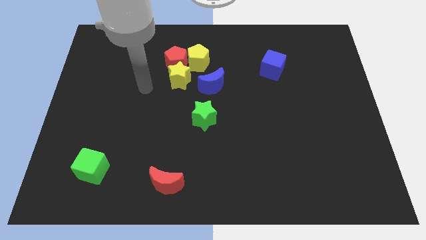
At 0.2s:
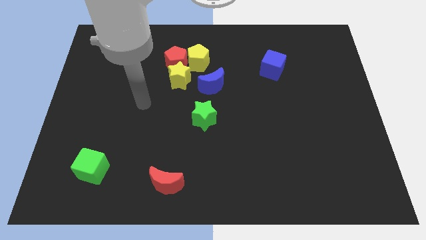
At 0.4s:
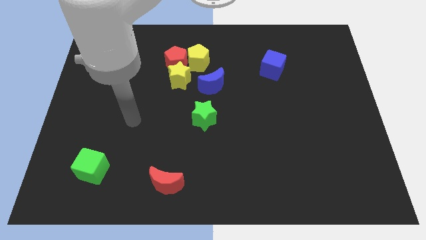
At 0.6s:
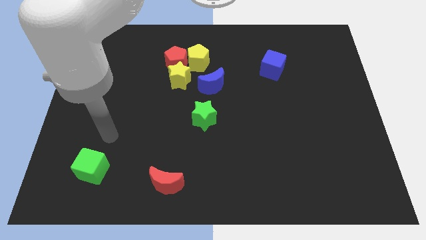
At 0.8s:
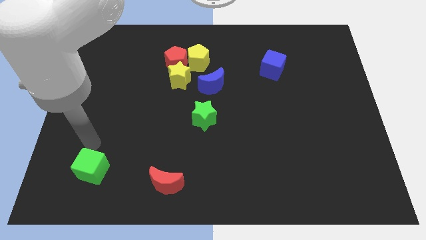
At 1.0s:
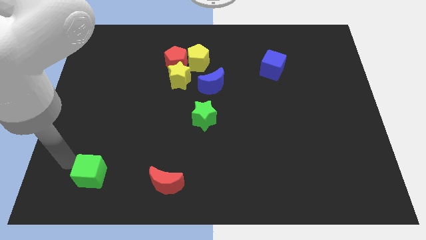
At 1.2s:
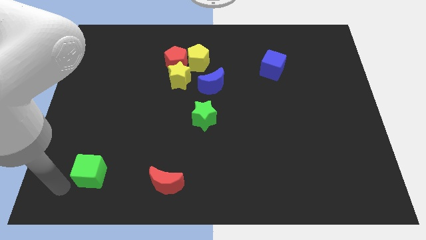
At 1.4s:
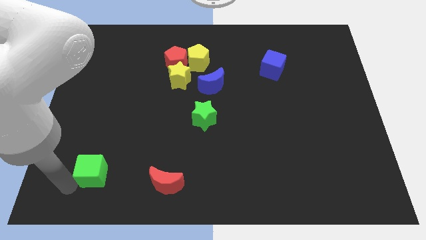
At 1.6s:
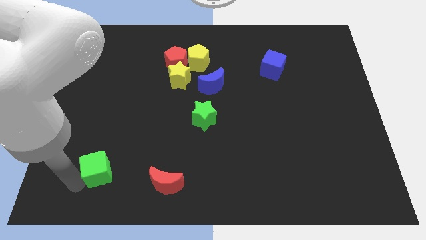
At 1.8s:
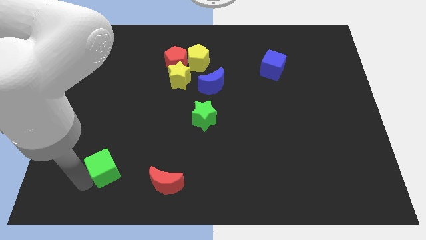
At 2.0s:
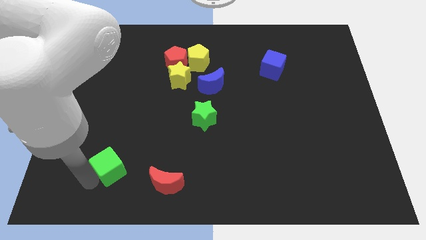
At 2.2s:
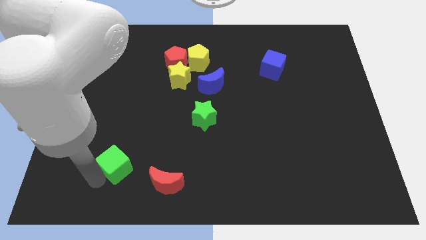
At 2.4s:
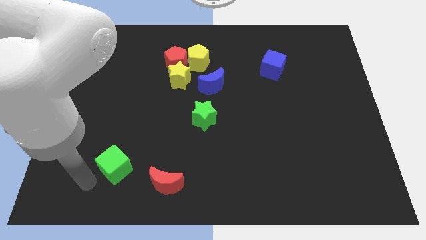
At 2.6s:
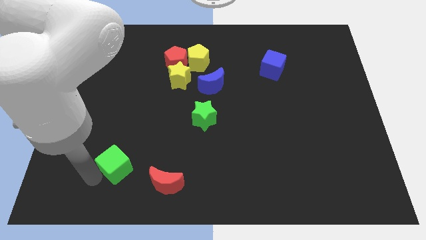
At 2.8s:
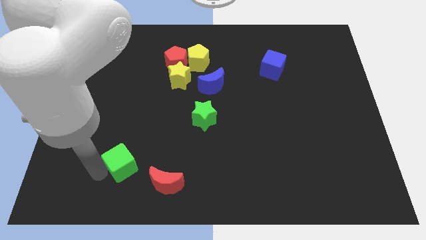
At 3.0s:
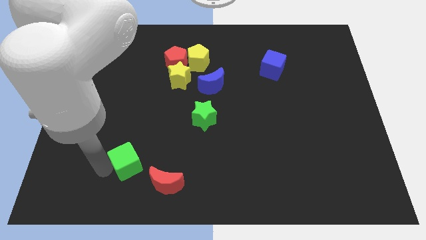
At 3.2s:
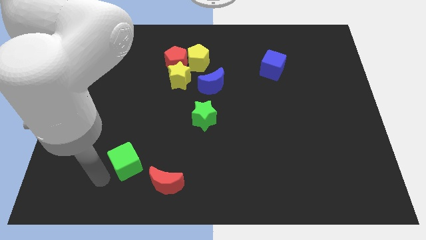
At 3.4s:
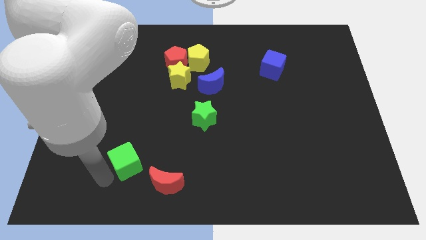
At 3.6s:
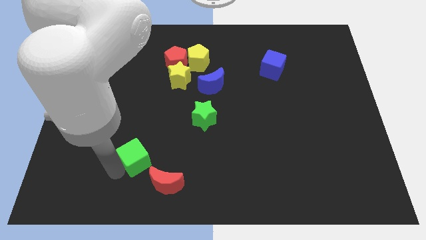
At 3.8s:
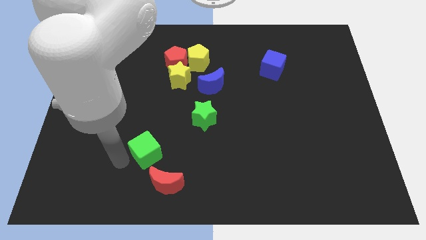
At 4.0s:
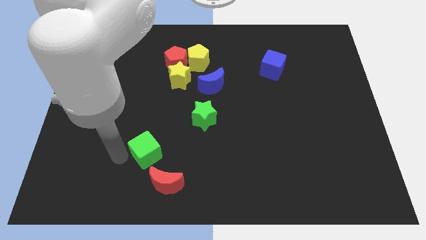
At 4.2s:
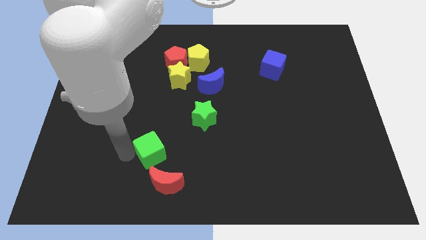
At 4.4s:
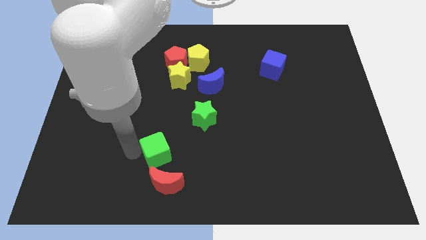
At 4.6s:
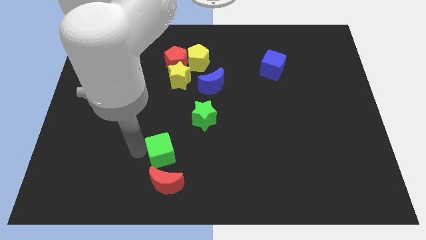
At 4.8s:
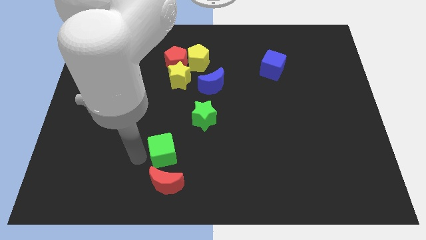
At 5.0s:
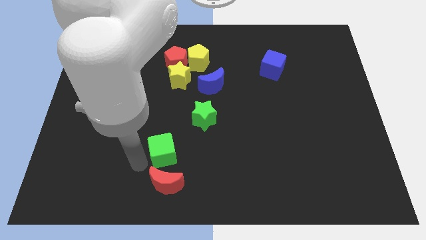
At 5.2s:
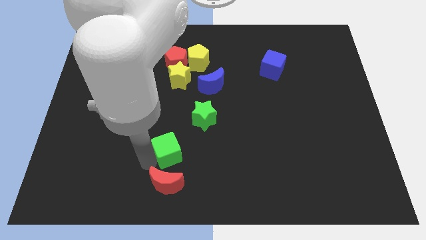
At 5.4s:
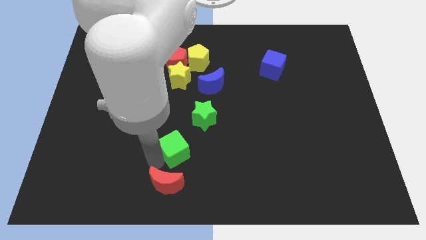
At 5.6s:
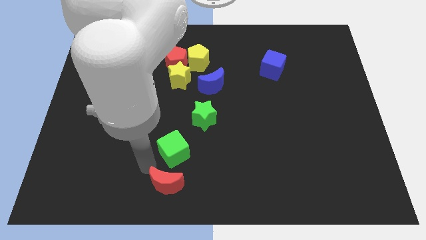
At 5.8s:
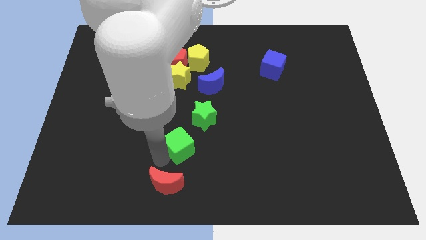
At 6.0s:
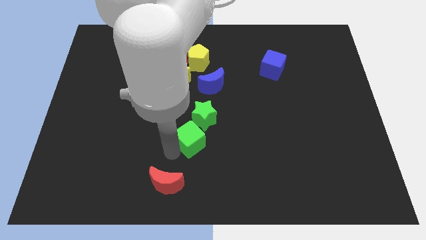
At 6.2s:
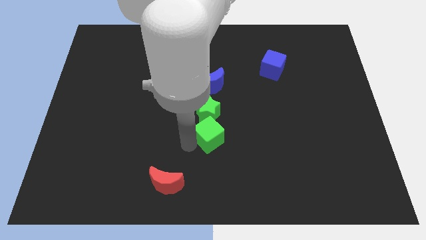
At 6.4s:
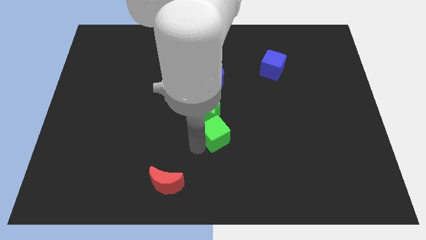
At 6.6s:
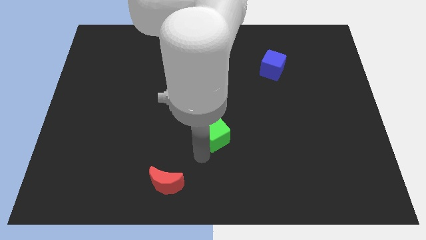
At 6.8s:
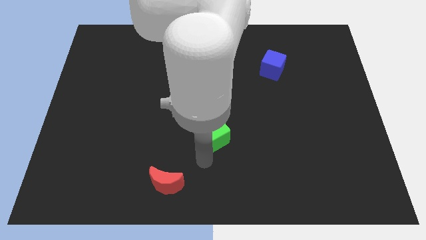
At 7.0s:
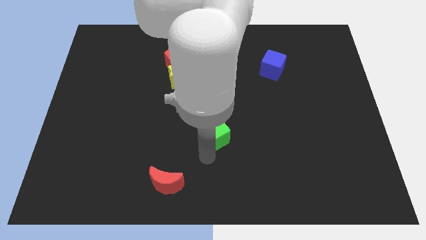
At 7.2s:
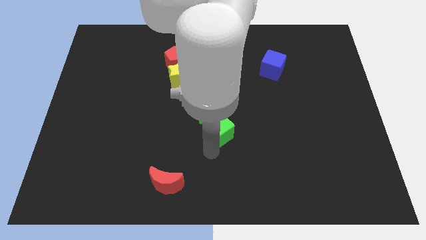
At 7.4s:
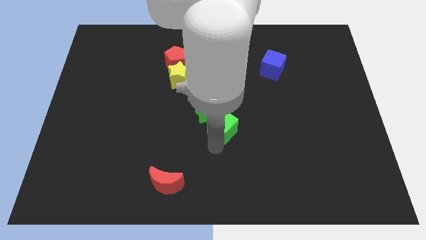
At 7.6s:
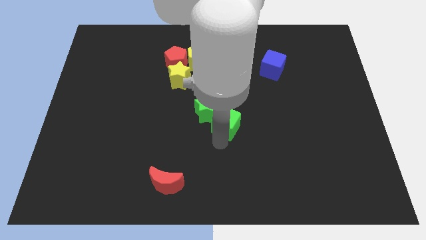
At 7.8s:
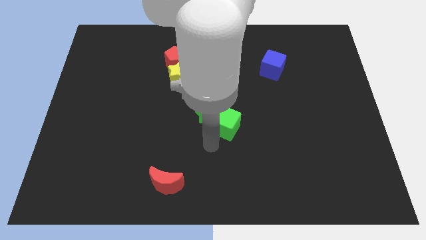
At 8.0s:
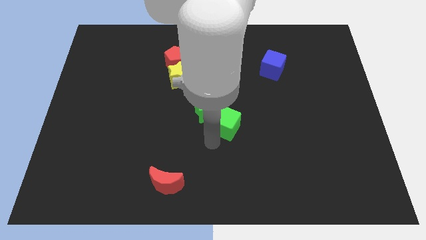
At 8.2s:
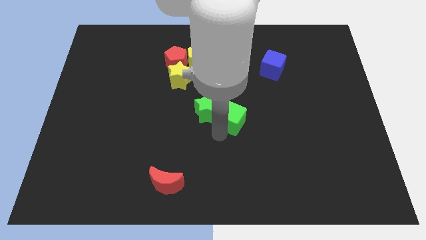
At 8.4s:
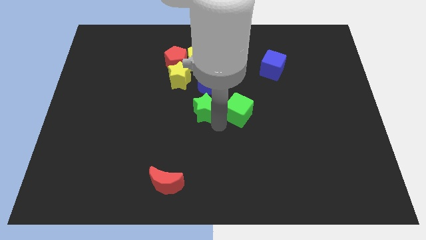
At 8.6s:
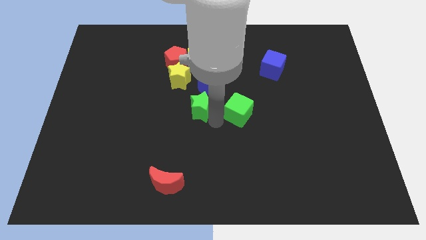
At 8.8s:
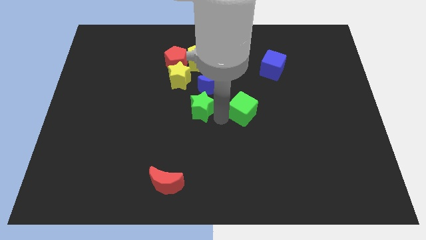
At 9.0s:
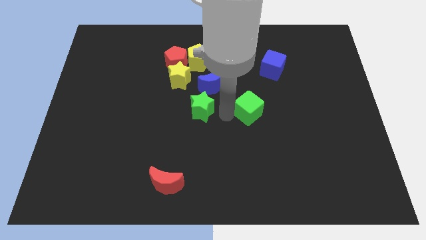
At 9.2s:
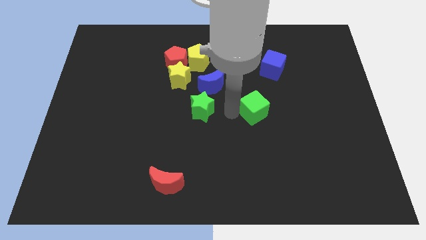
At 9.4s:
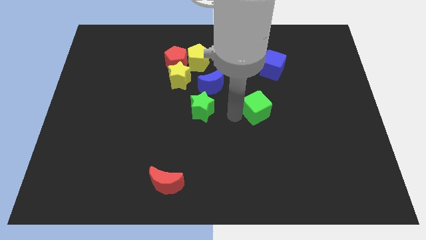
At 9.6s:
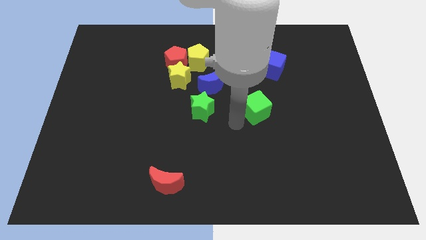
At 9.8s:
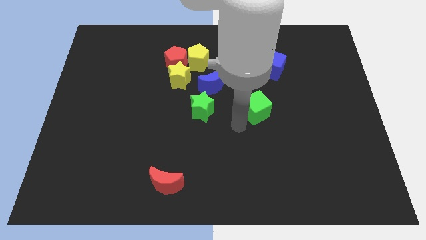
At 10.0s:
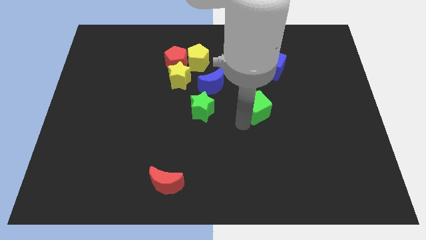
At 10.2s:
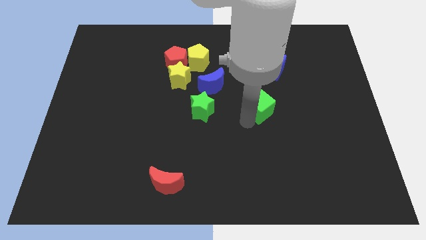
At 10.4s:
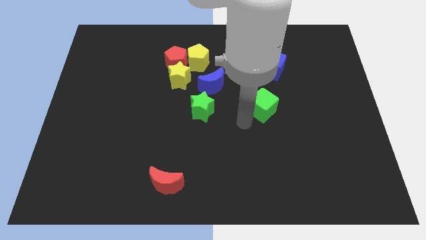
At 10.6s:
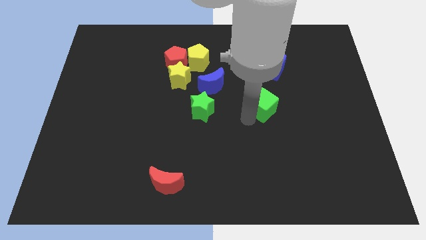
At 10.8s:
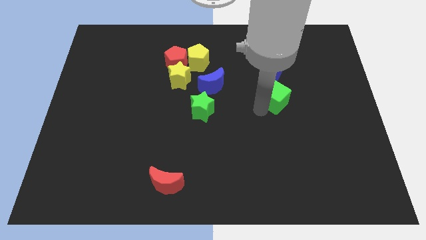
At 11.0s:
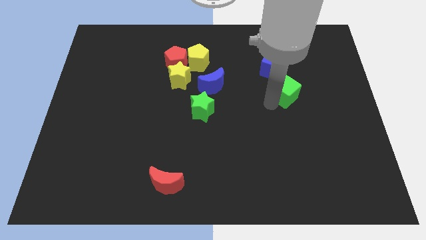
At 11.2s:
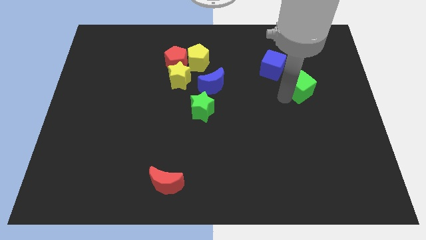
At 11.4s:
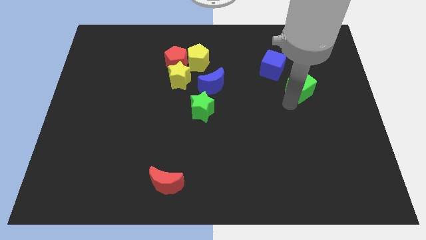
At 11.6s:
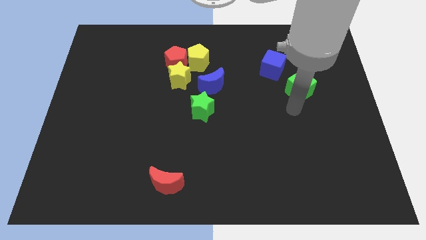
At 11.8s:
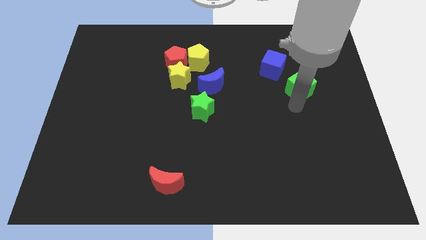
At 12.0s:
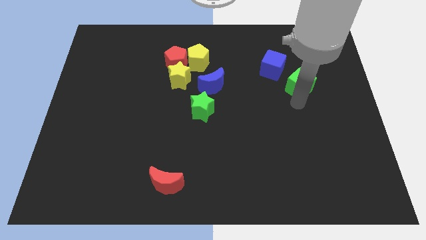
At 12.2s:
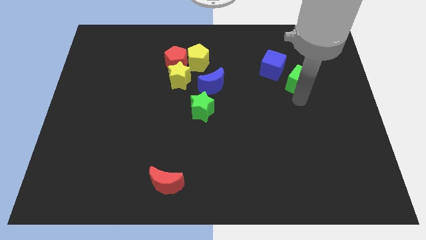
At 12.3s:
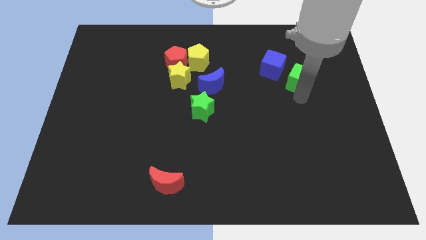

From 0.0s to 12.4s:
put the green cube right of the blue cube

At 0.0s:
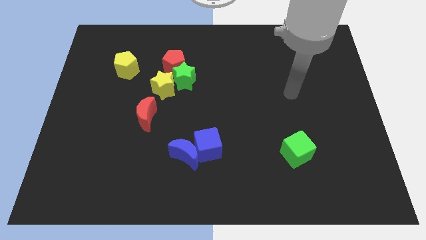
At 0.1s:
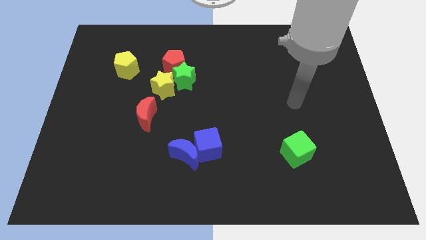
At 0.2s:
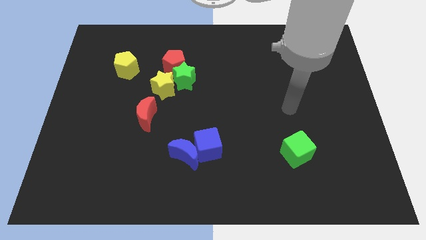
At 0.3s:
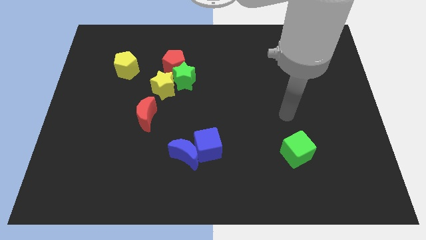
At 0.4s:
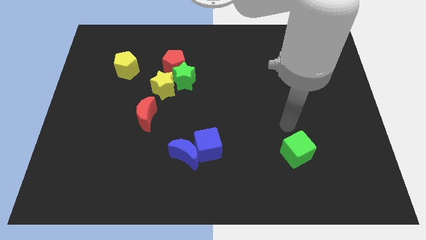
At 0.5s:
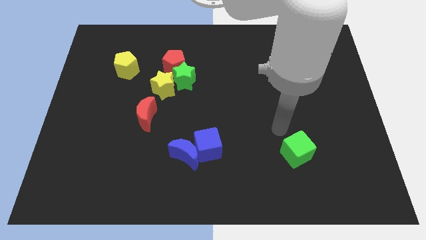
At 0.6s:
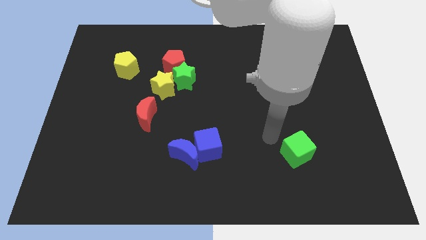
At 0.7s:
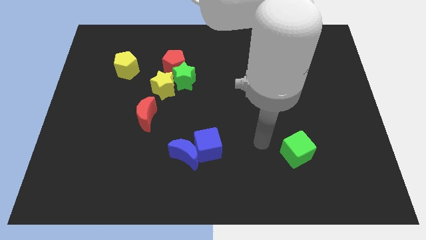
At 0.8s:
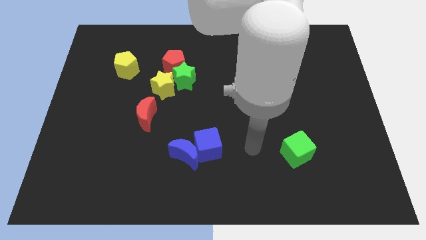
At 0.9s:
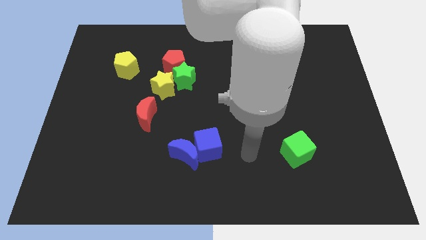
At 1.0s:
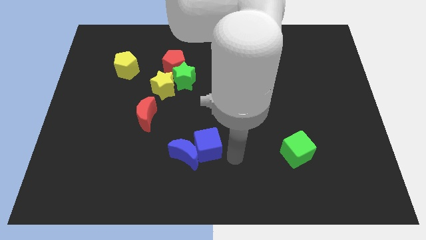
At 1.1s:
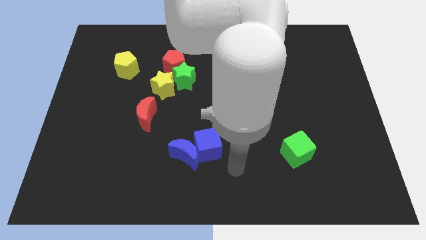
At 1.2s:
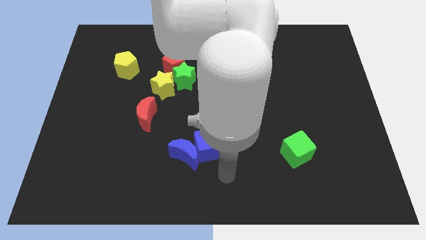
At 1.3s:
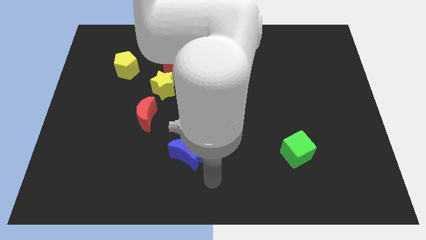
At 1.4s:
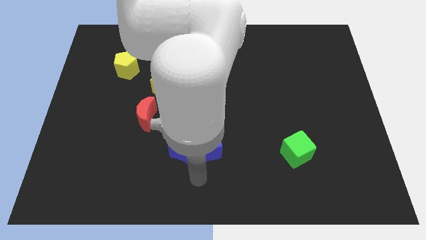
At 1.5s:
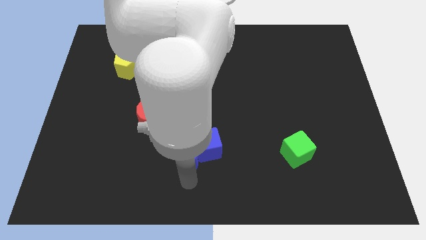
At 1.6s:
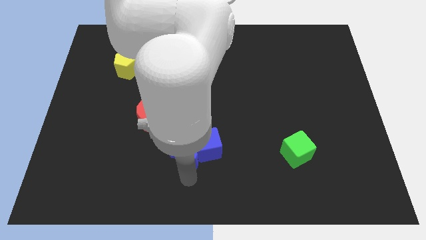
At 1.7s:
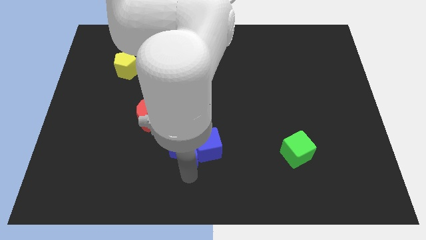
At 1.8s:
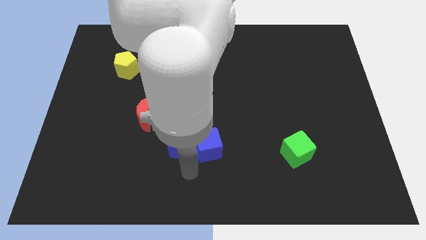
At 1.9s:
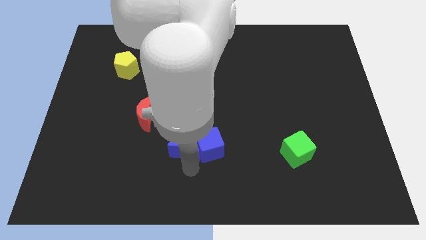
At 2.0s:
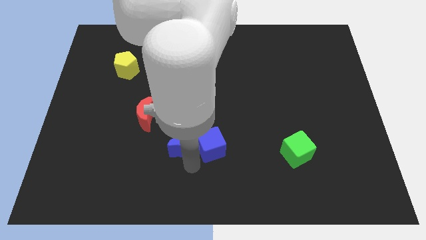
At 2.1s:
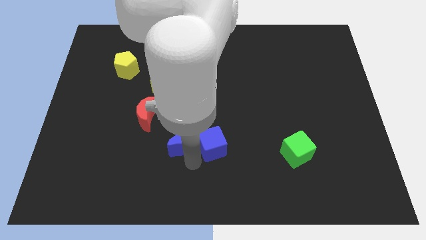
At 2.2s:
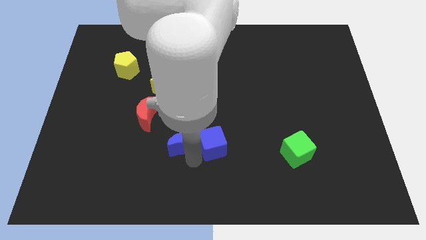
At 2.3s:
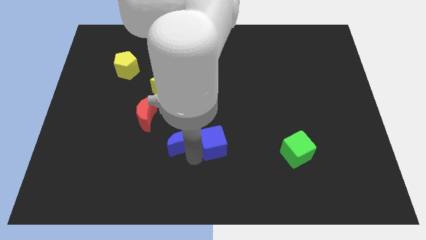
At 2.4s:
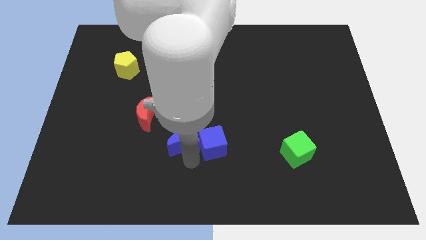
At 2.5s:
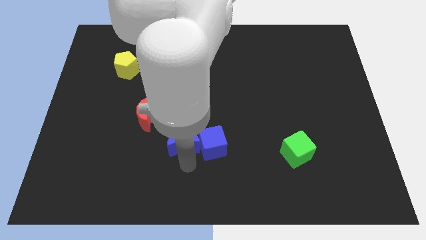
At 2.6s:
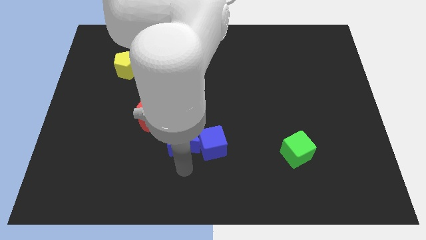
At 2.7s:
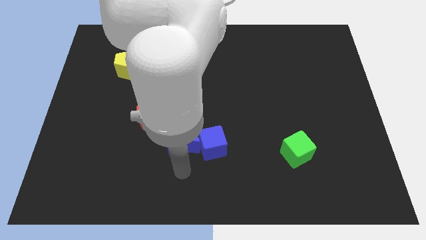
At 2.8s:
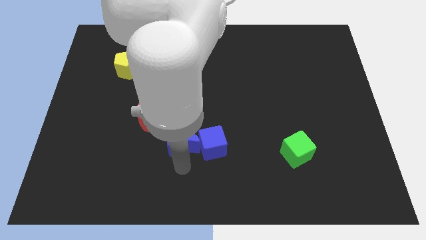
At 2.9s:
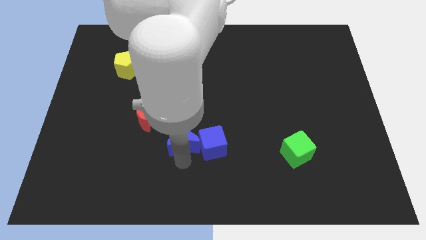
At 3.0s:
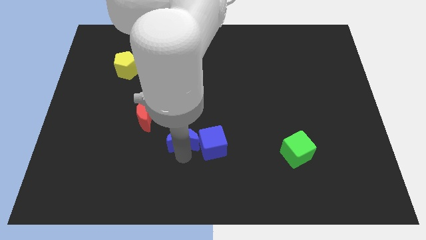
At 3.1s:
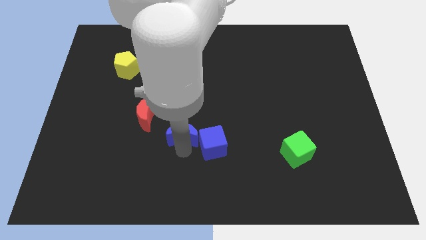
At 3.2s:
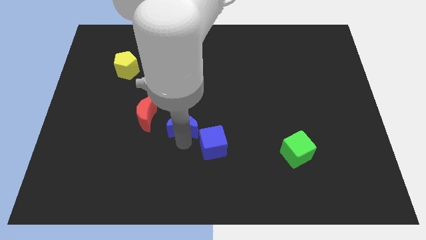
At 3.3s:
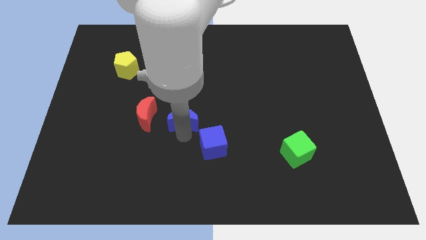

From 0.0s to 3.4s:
put the blue moon diagonally down and to the right of the yellow star
